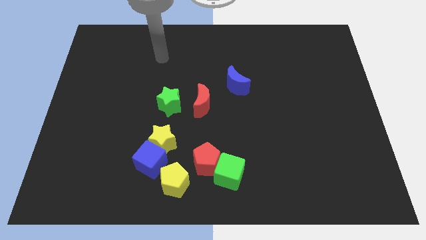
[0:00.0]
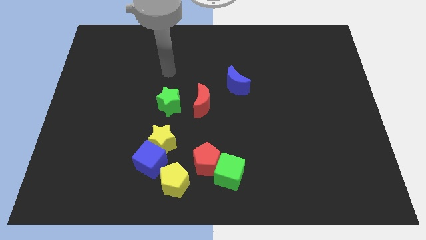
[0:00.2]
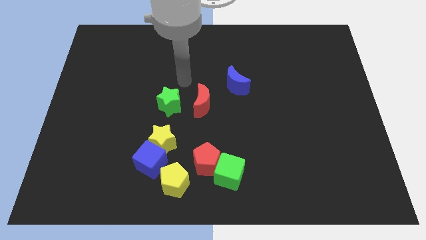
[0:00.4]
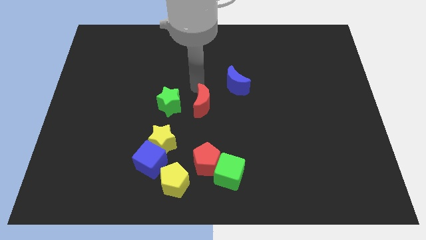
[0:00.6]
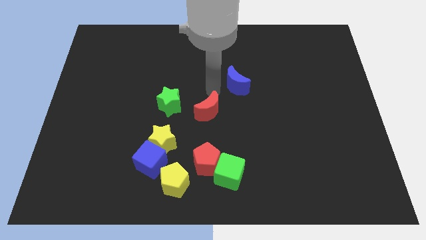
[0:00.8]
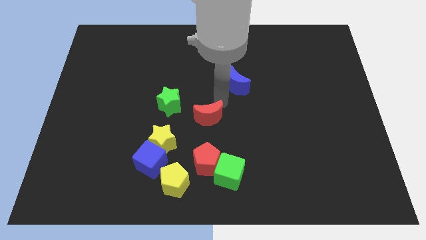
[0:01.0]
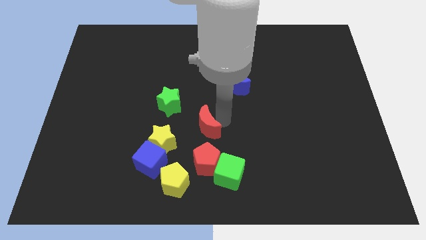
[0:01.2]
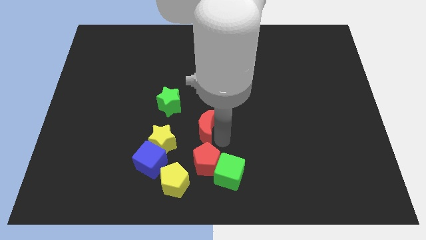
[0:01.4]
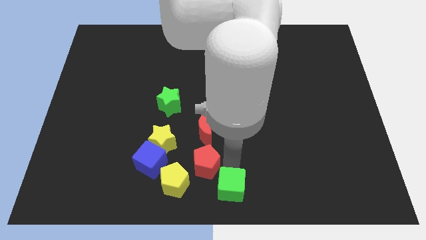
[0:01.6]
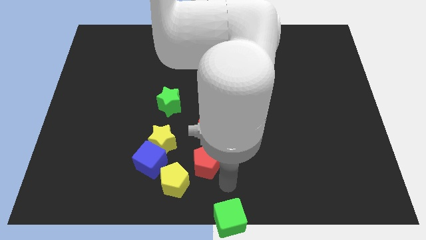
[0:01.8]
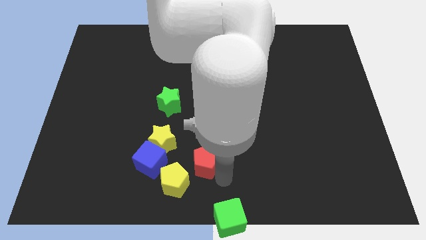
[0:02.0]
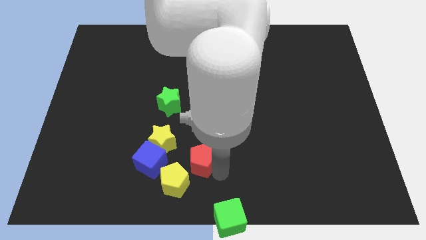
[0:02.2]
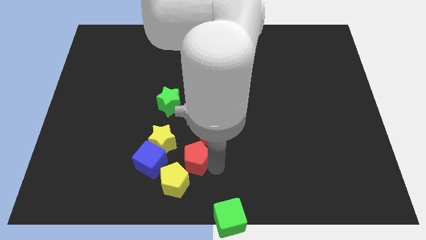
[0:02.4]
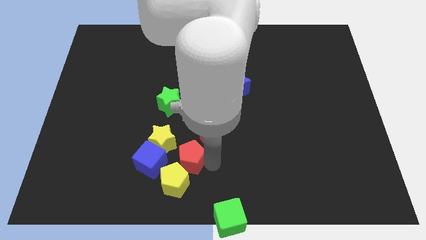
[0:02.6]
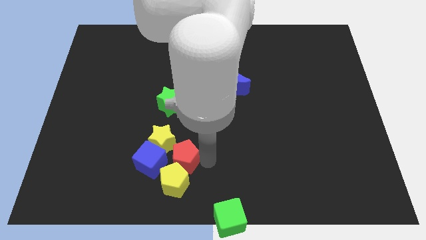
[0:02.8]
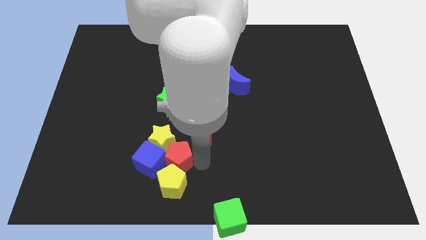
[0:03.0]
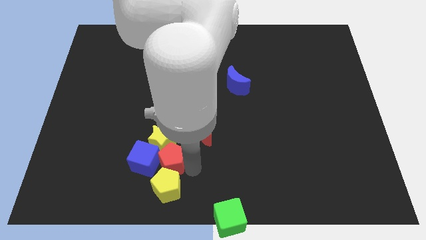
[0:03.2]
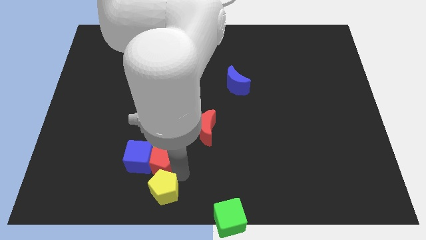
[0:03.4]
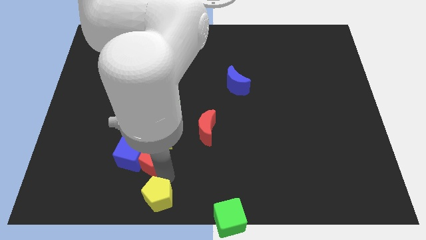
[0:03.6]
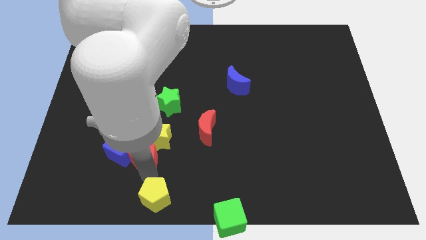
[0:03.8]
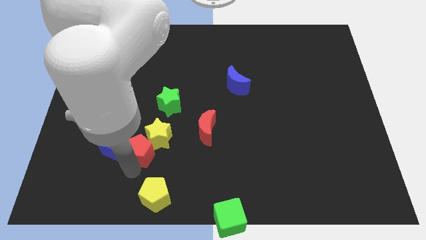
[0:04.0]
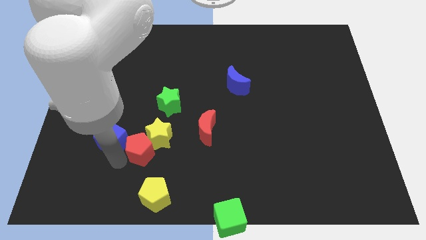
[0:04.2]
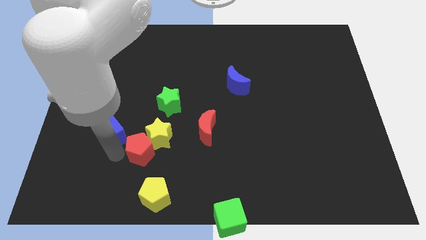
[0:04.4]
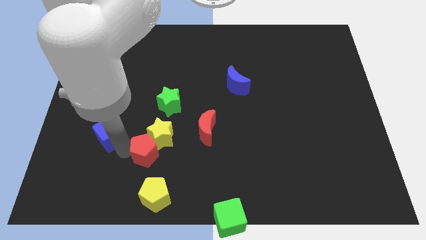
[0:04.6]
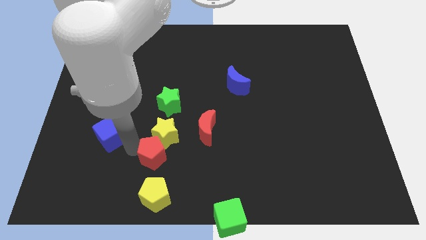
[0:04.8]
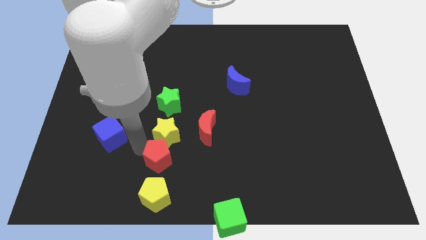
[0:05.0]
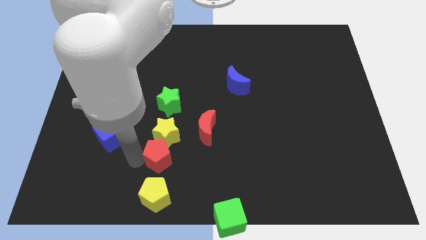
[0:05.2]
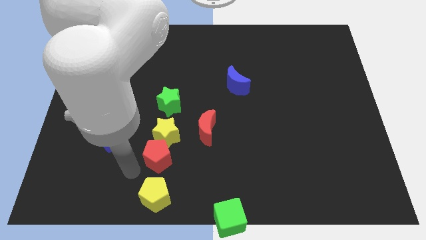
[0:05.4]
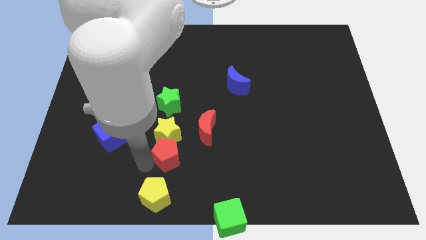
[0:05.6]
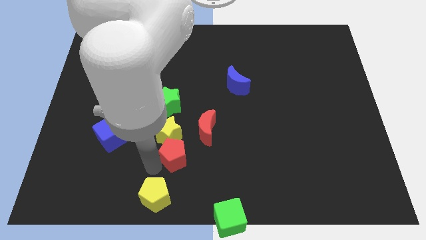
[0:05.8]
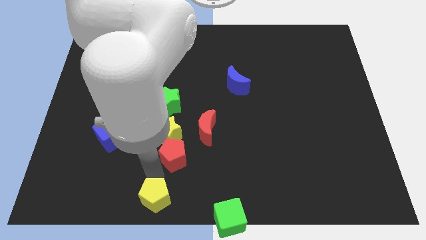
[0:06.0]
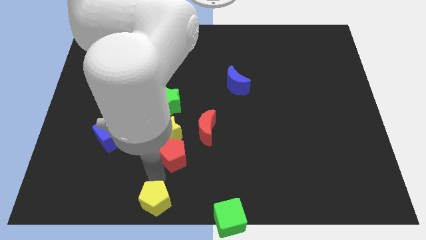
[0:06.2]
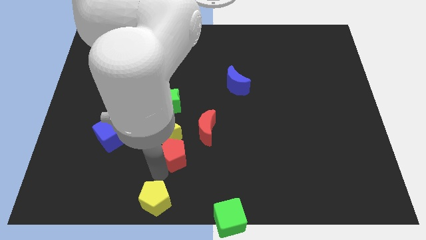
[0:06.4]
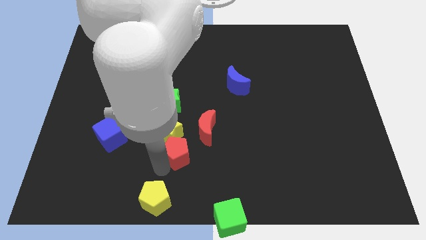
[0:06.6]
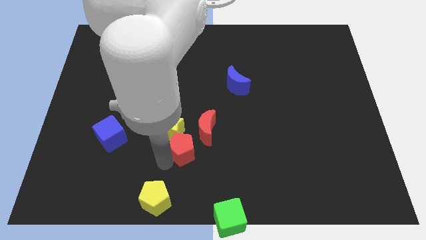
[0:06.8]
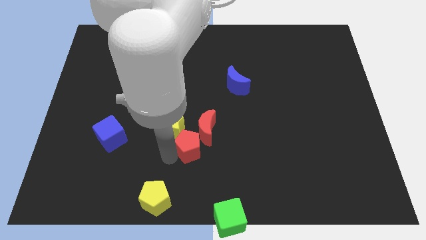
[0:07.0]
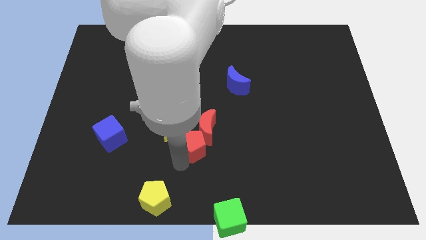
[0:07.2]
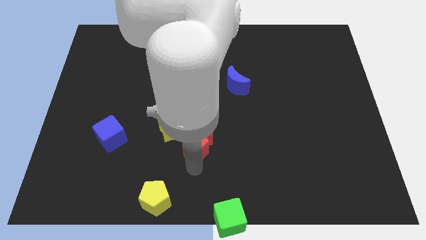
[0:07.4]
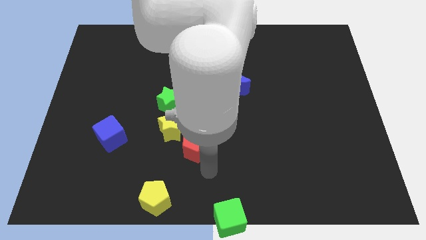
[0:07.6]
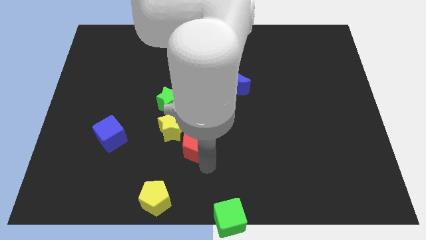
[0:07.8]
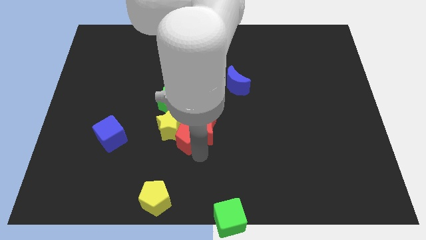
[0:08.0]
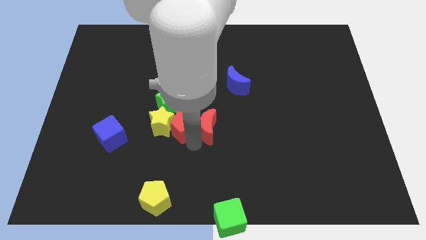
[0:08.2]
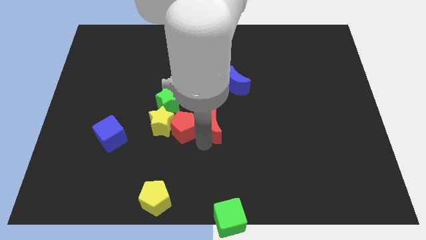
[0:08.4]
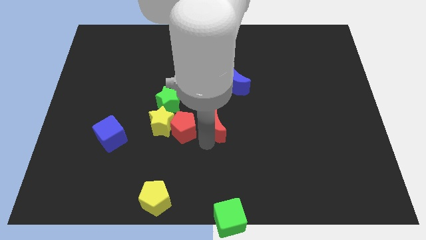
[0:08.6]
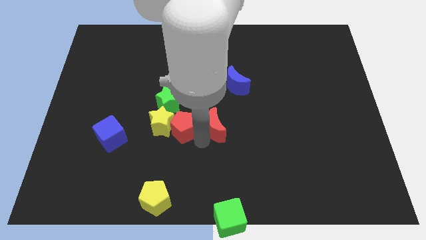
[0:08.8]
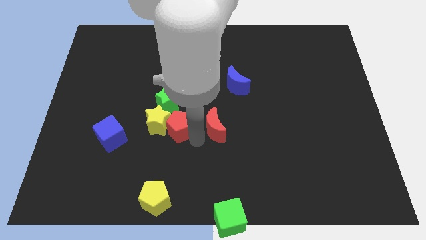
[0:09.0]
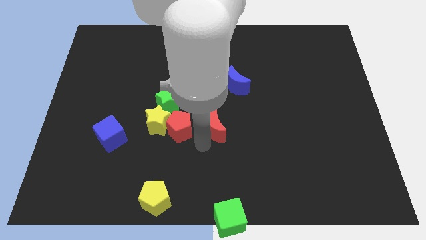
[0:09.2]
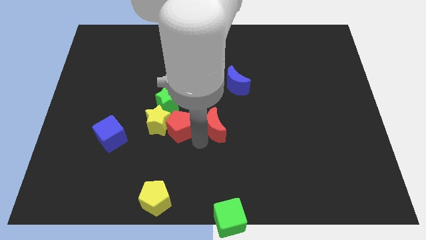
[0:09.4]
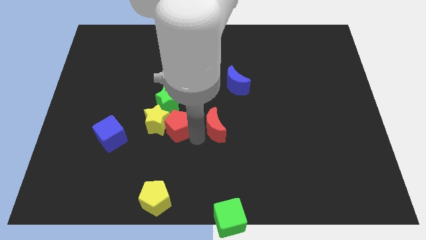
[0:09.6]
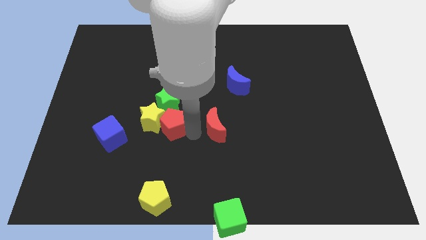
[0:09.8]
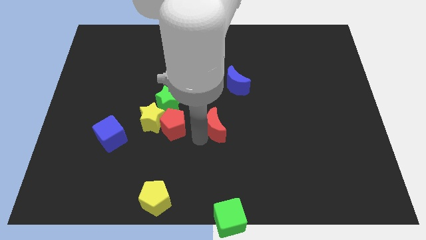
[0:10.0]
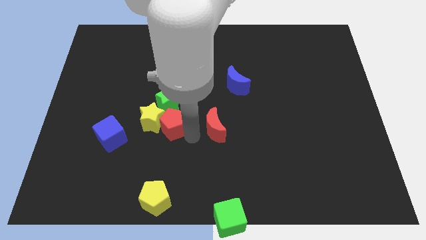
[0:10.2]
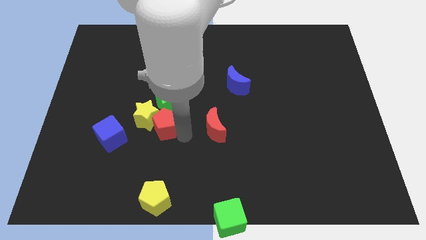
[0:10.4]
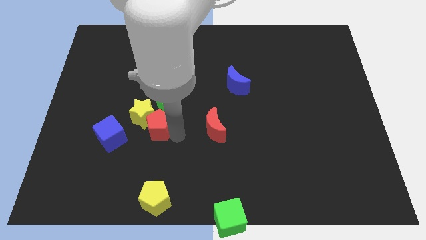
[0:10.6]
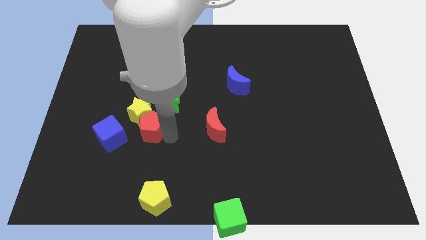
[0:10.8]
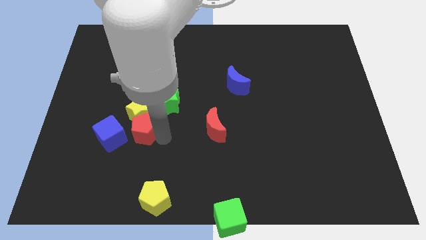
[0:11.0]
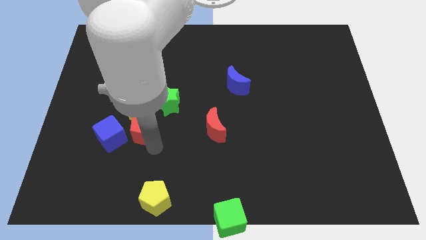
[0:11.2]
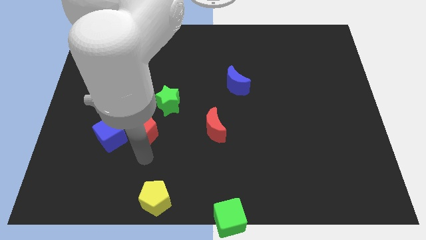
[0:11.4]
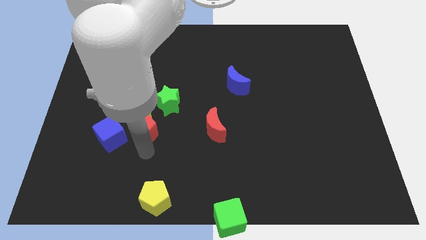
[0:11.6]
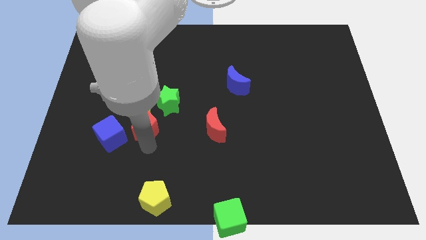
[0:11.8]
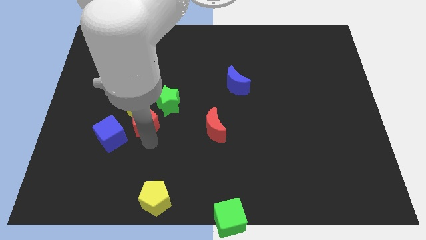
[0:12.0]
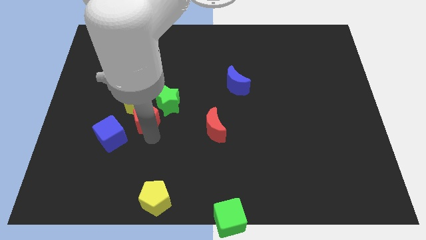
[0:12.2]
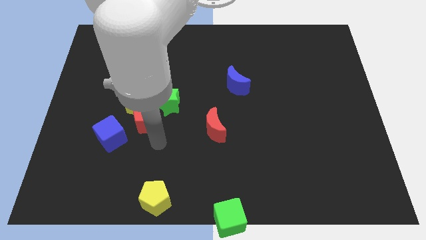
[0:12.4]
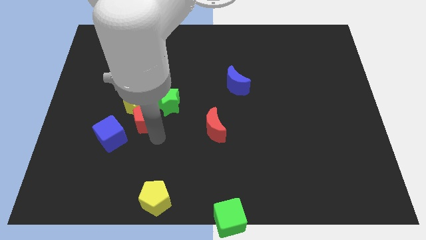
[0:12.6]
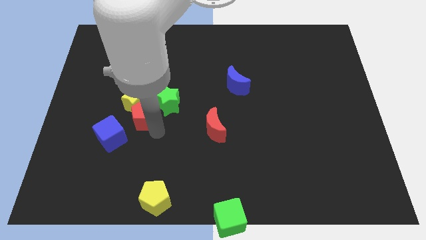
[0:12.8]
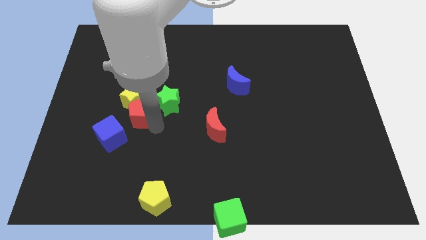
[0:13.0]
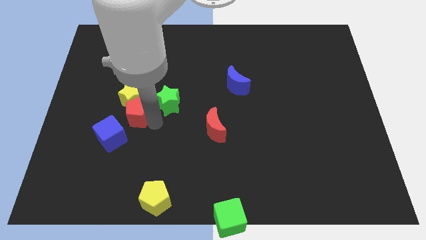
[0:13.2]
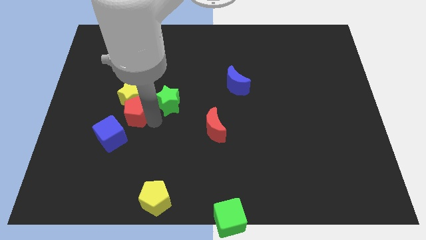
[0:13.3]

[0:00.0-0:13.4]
push the red pentagon diagonally upwards and left

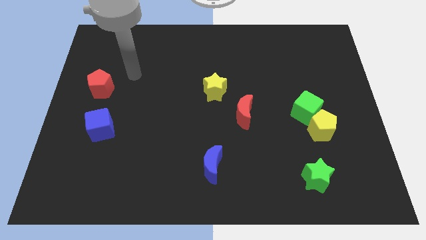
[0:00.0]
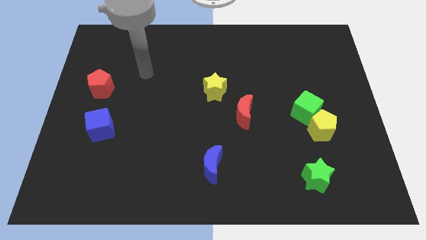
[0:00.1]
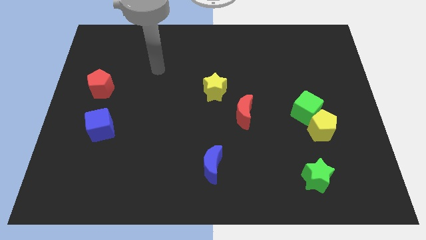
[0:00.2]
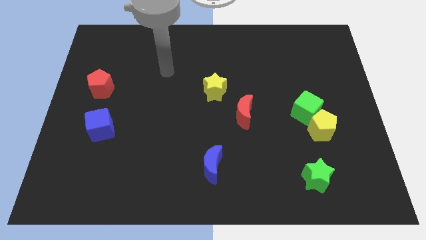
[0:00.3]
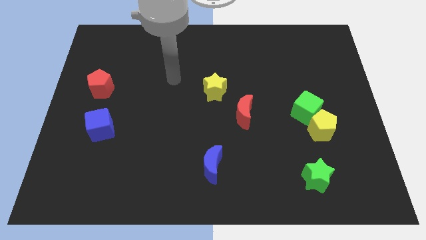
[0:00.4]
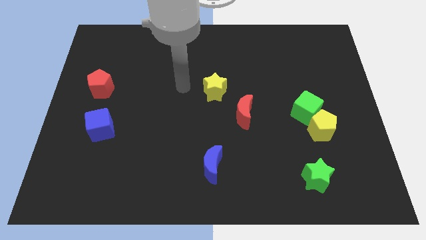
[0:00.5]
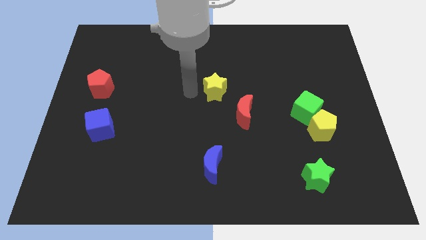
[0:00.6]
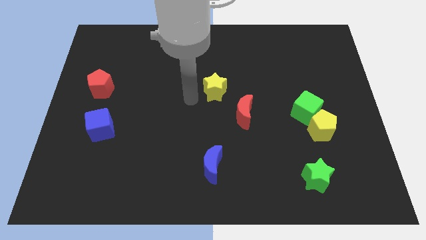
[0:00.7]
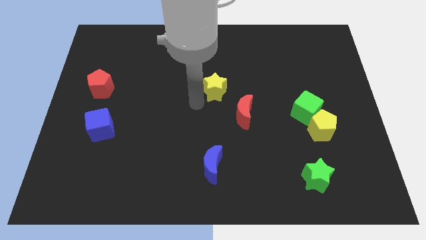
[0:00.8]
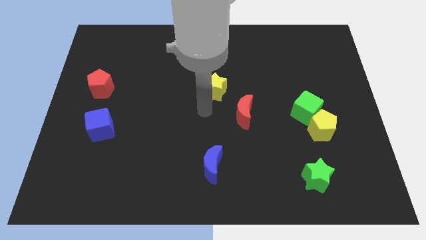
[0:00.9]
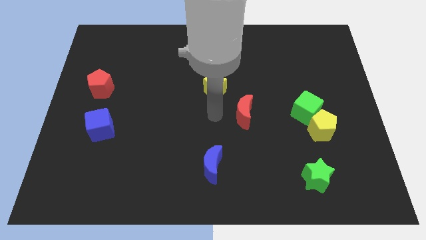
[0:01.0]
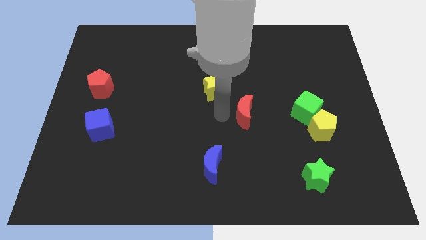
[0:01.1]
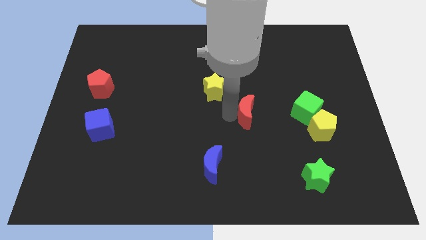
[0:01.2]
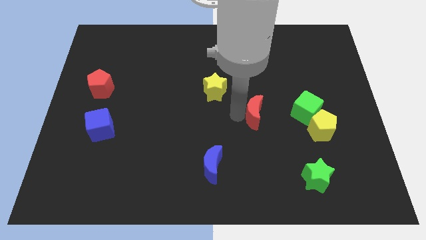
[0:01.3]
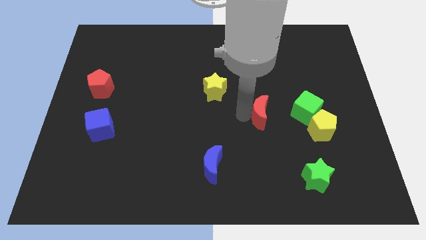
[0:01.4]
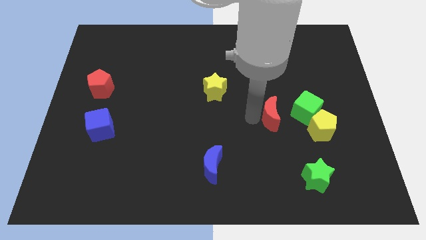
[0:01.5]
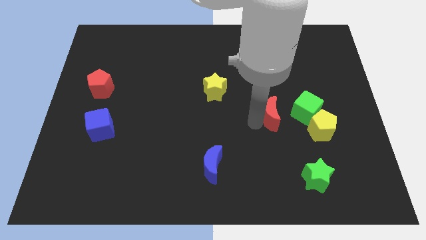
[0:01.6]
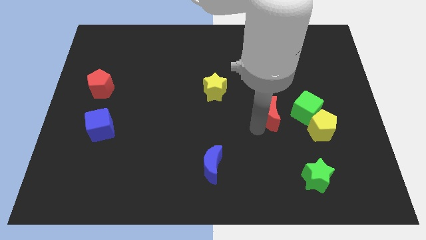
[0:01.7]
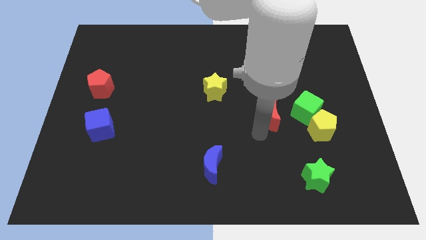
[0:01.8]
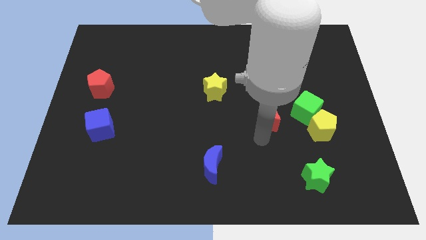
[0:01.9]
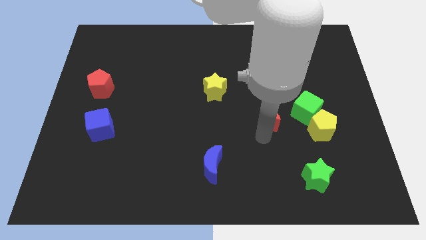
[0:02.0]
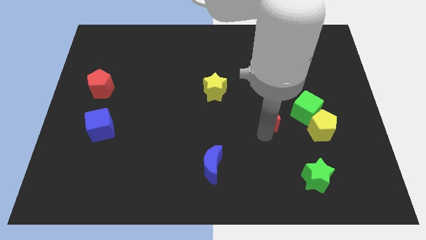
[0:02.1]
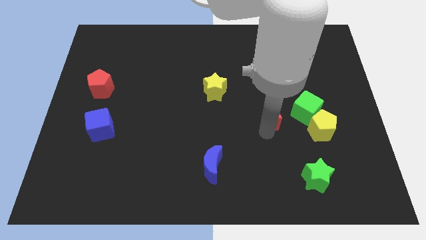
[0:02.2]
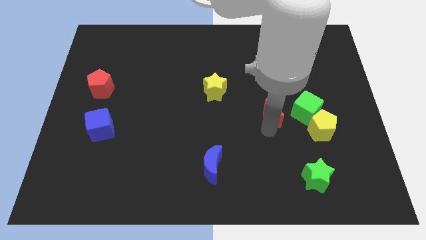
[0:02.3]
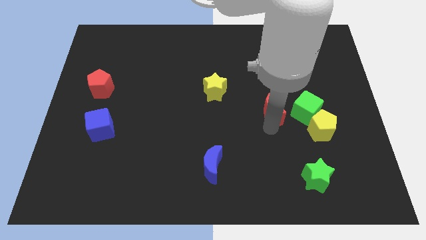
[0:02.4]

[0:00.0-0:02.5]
slide the red moon slightly to the right
